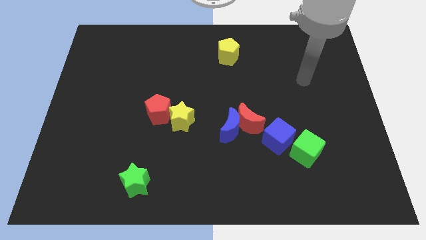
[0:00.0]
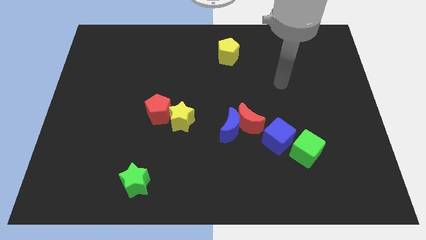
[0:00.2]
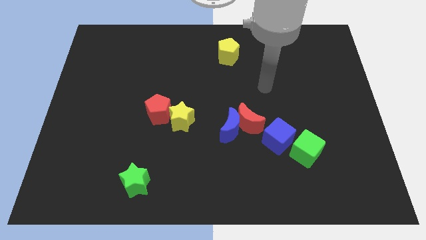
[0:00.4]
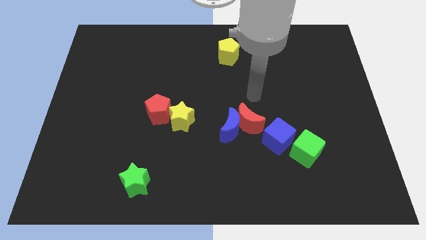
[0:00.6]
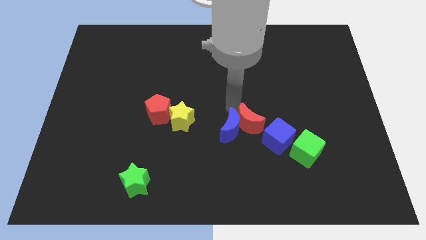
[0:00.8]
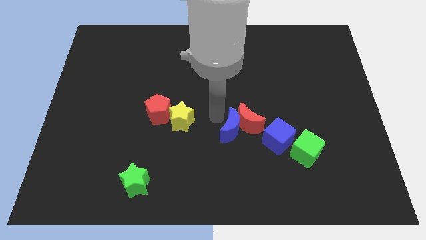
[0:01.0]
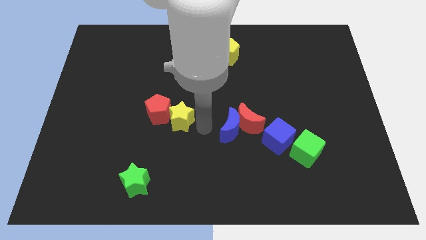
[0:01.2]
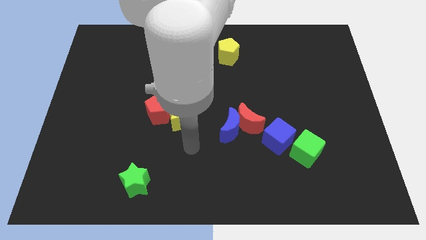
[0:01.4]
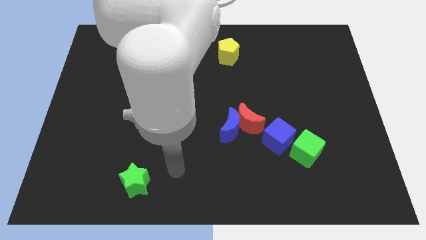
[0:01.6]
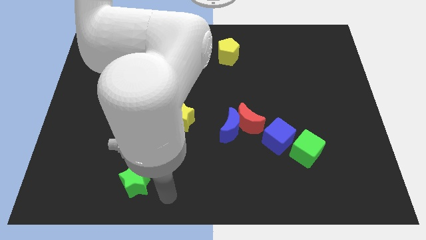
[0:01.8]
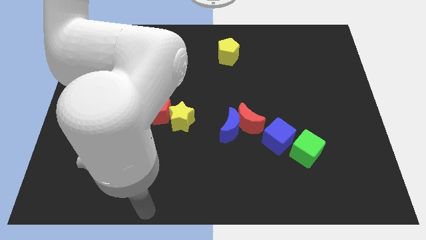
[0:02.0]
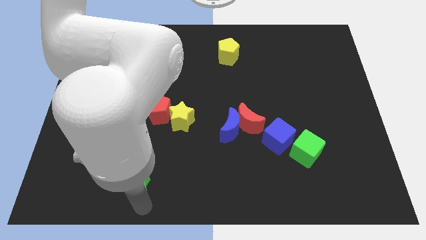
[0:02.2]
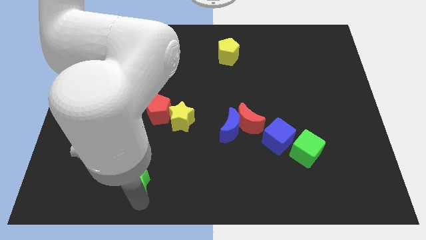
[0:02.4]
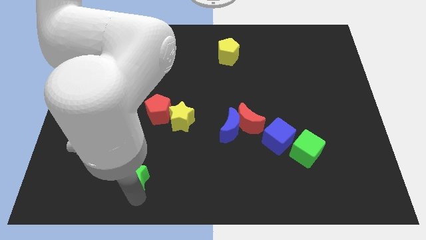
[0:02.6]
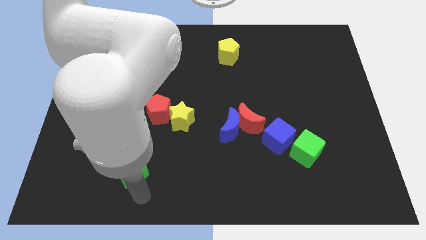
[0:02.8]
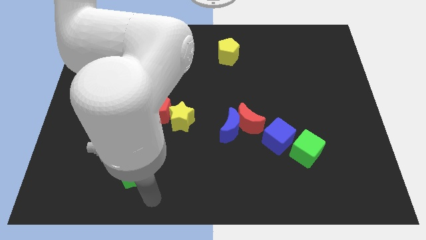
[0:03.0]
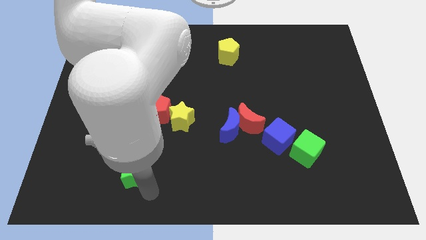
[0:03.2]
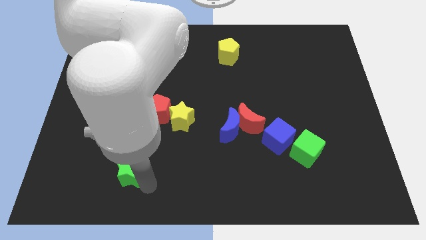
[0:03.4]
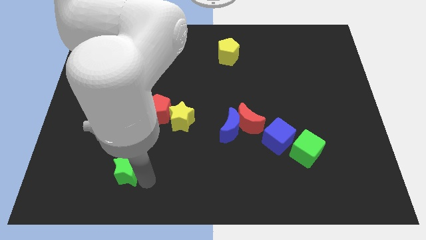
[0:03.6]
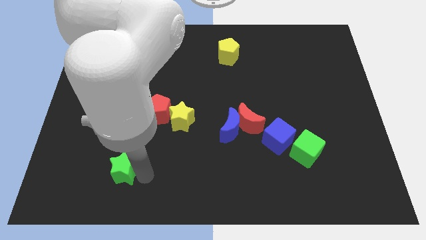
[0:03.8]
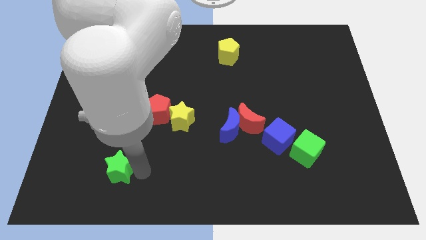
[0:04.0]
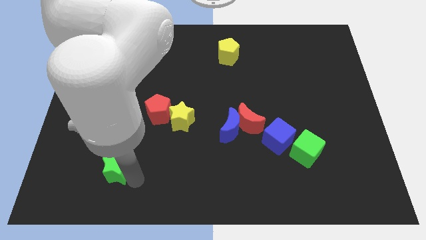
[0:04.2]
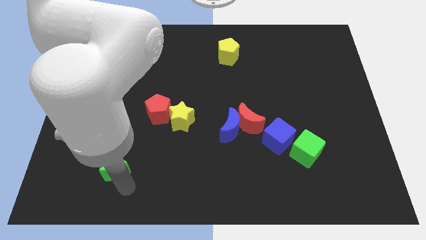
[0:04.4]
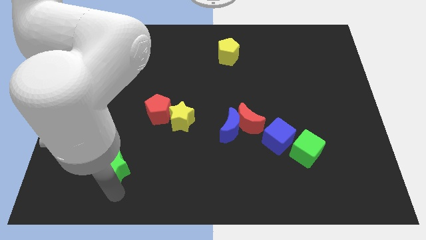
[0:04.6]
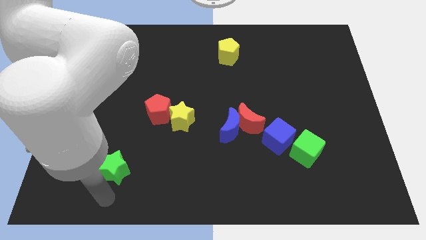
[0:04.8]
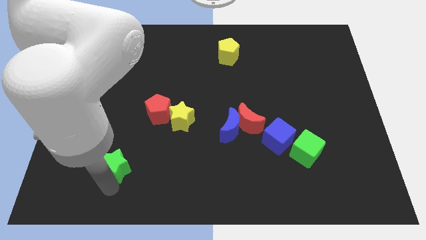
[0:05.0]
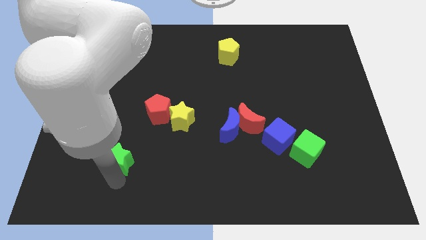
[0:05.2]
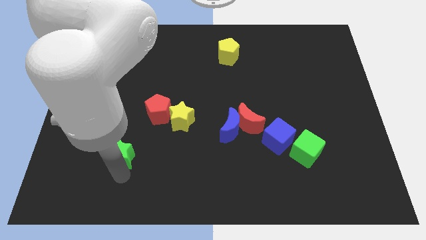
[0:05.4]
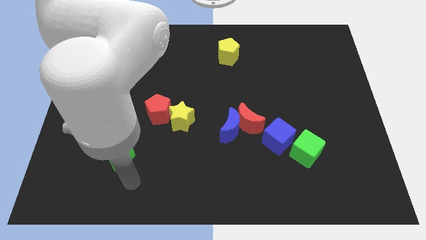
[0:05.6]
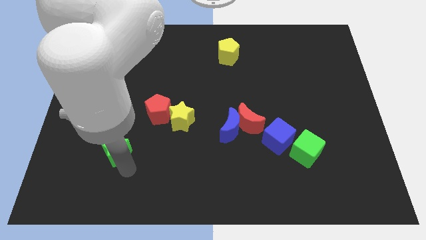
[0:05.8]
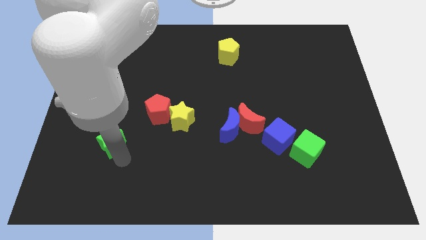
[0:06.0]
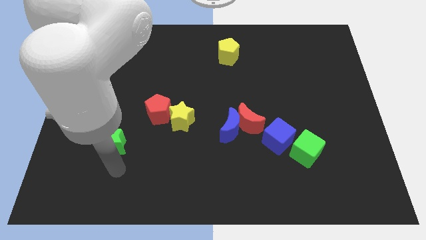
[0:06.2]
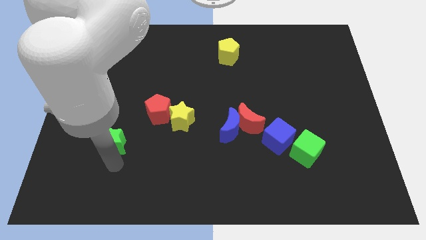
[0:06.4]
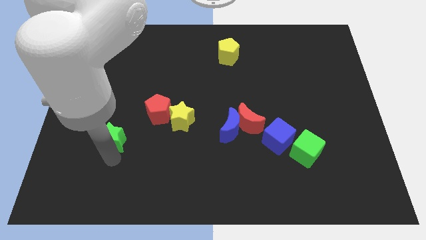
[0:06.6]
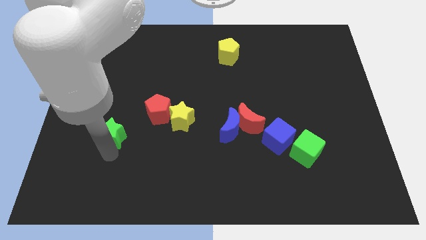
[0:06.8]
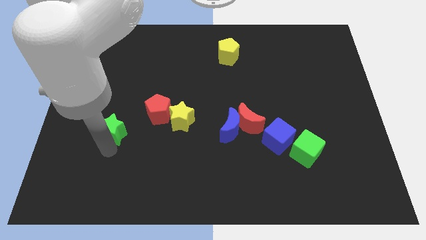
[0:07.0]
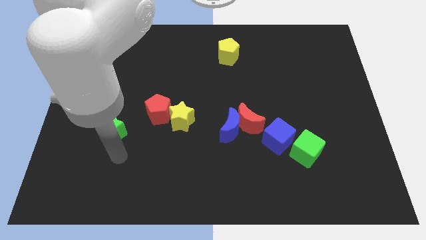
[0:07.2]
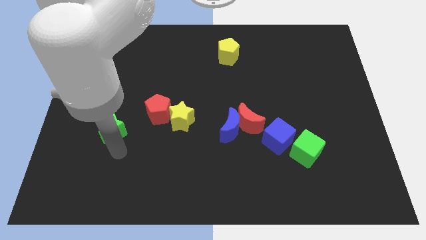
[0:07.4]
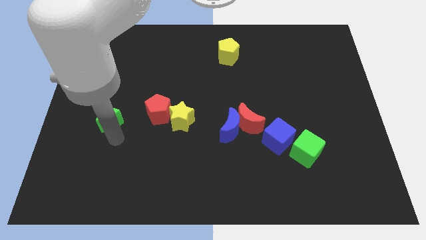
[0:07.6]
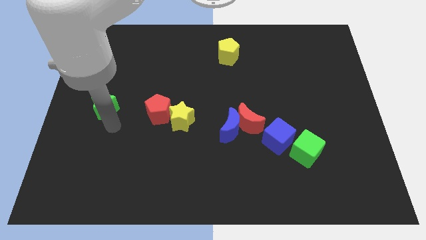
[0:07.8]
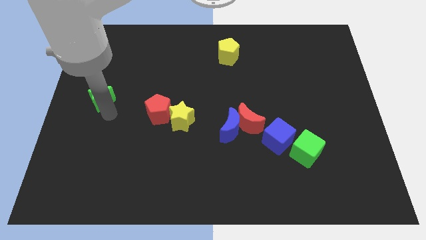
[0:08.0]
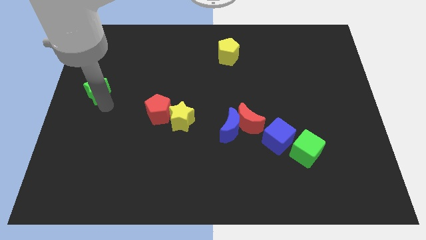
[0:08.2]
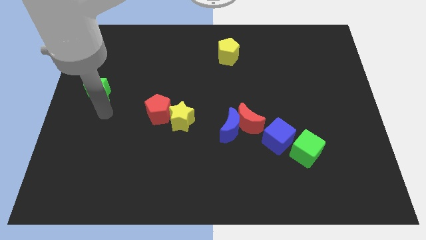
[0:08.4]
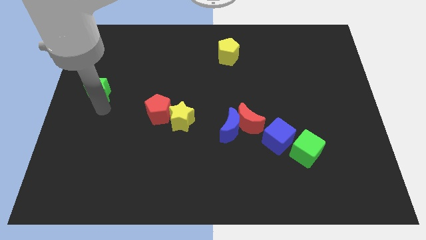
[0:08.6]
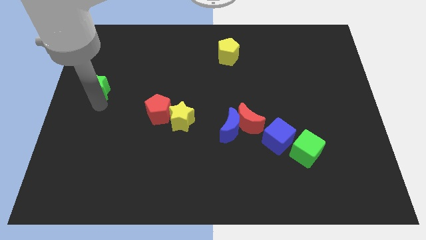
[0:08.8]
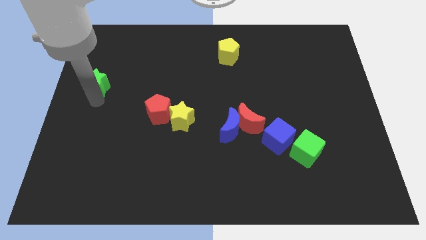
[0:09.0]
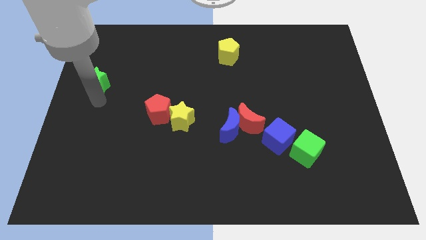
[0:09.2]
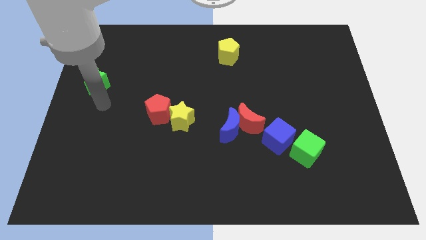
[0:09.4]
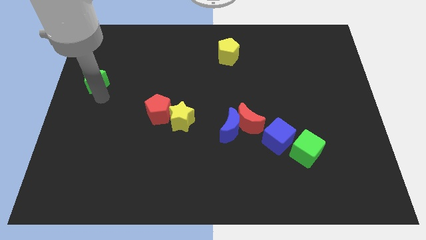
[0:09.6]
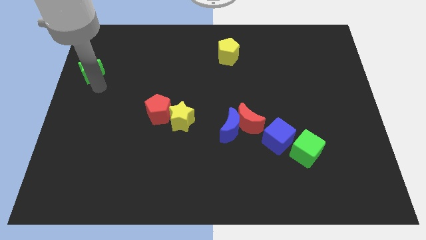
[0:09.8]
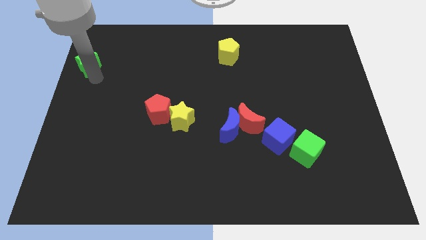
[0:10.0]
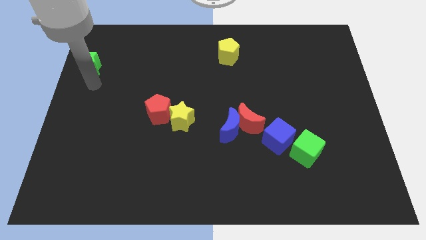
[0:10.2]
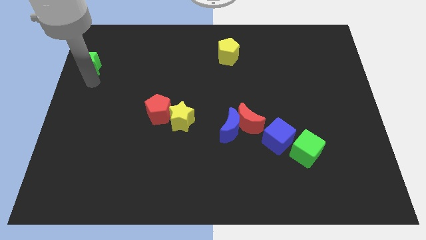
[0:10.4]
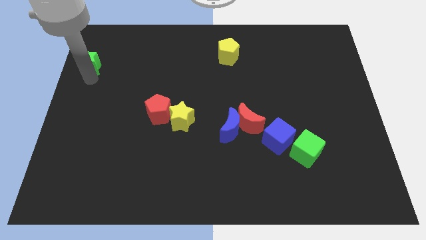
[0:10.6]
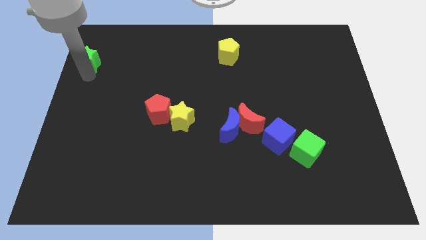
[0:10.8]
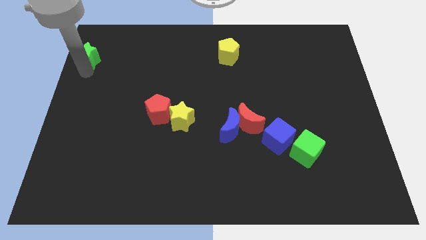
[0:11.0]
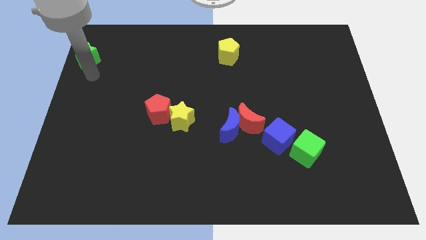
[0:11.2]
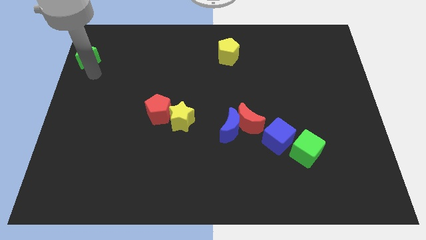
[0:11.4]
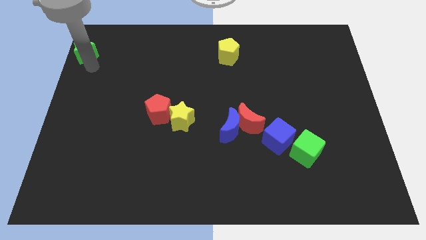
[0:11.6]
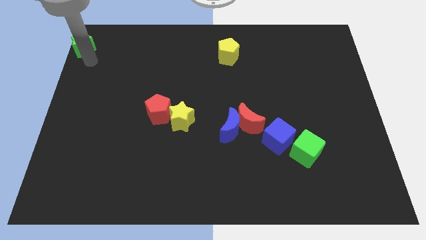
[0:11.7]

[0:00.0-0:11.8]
push the green star to the upper left corner

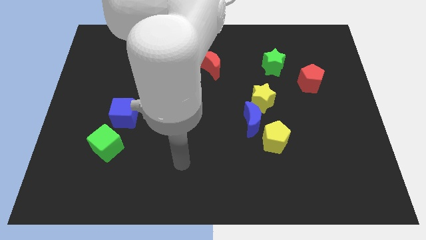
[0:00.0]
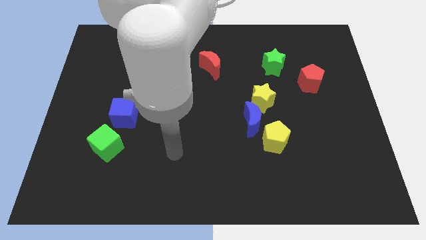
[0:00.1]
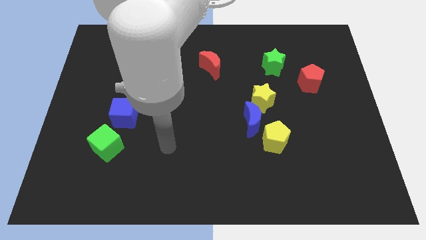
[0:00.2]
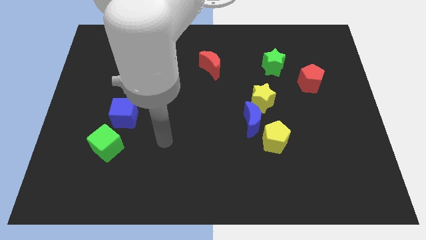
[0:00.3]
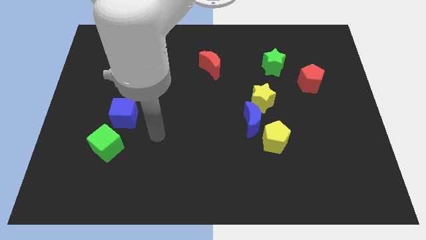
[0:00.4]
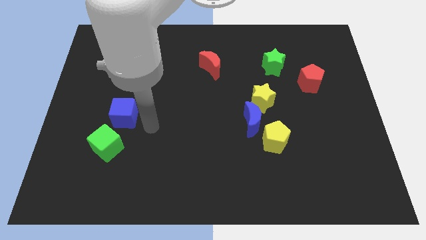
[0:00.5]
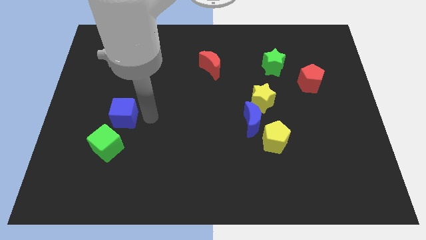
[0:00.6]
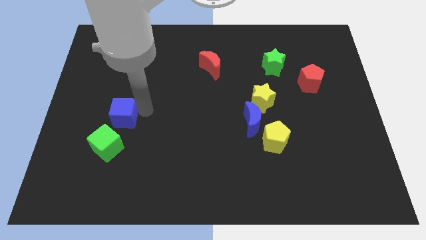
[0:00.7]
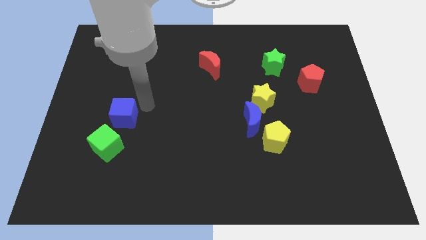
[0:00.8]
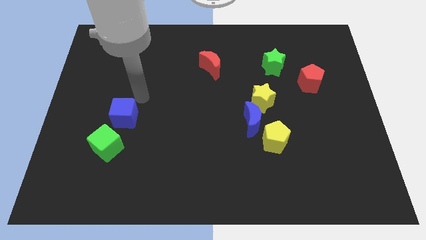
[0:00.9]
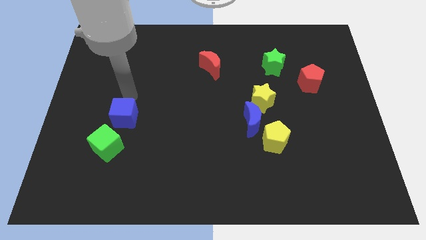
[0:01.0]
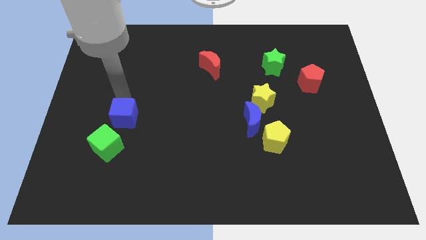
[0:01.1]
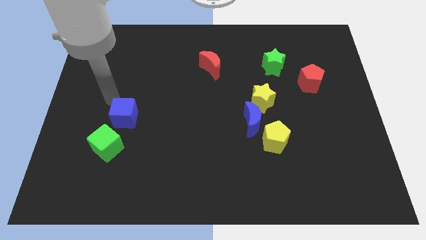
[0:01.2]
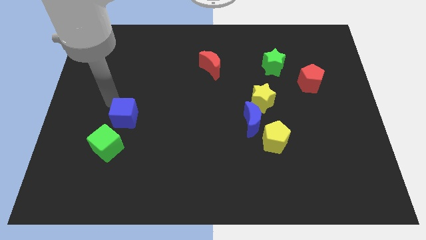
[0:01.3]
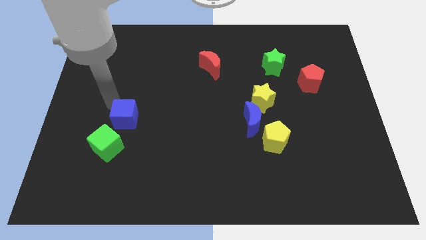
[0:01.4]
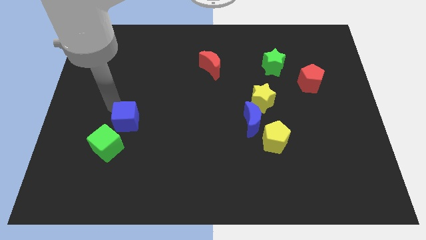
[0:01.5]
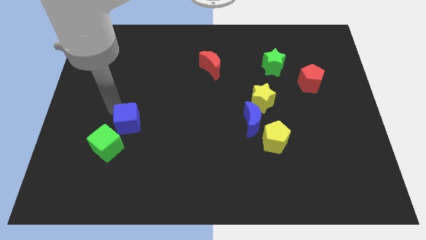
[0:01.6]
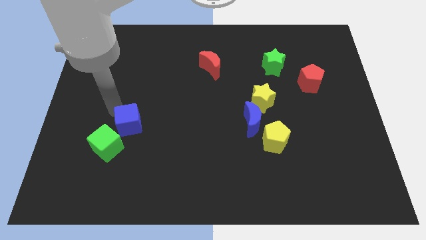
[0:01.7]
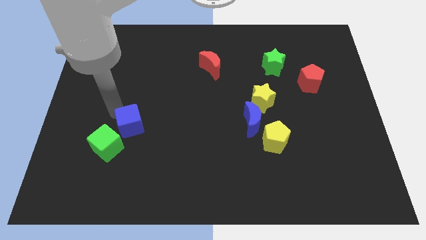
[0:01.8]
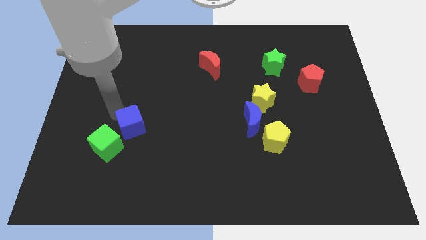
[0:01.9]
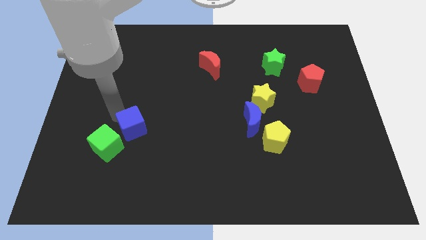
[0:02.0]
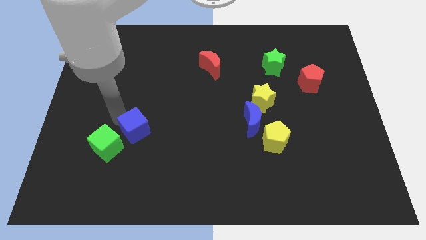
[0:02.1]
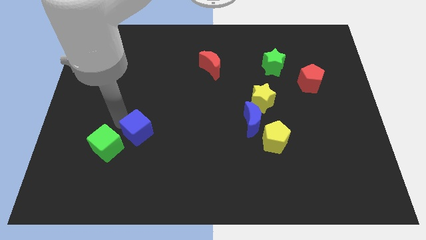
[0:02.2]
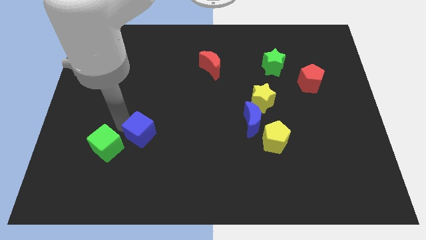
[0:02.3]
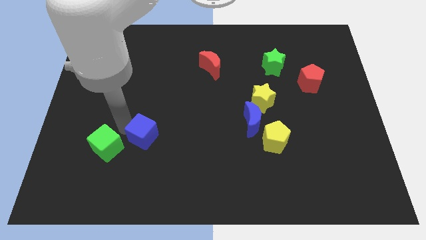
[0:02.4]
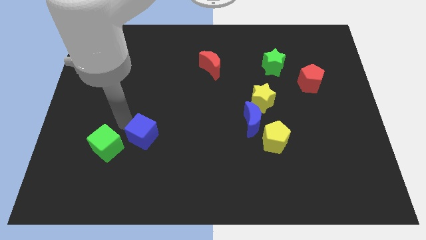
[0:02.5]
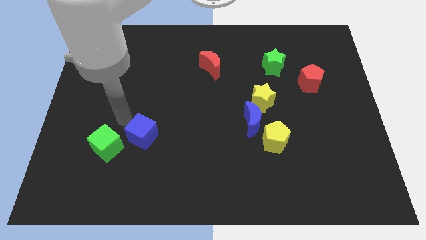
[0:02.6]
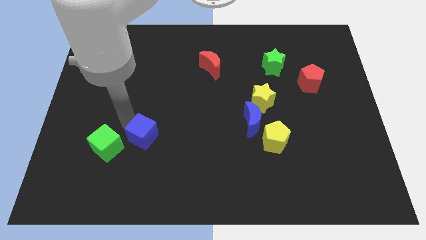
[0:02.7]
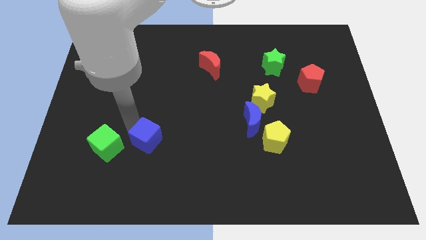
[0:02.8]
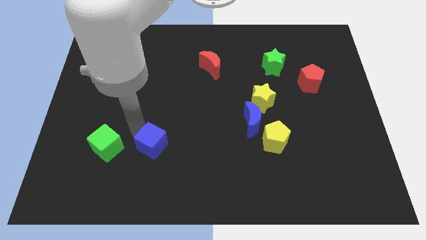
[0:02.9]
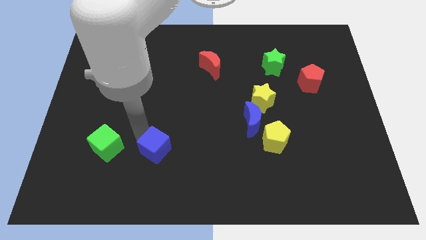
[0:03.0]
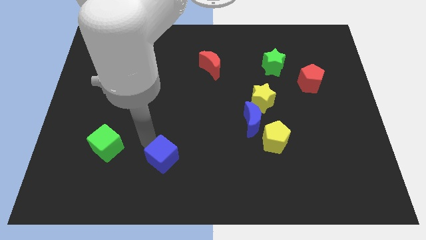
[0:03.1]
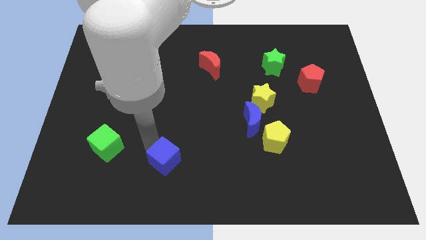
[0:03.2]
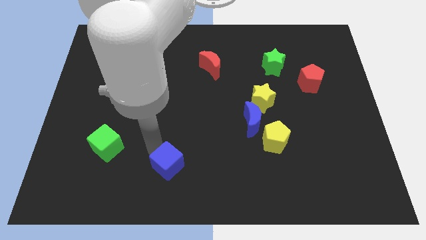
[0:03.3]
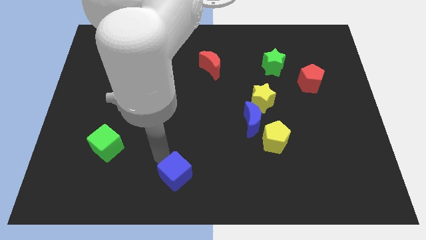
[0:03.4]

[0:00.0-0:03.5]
move the blue cube to the bottom side
